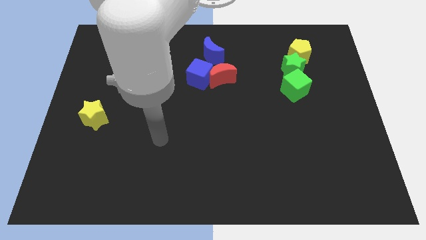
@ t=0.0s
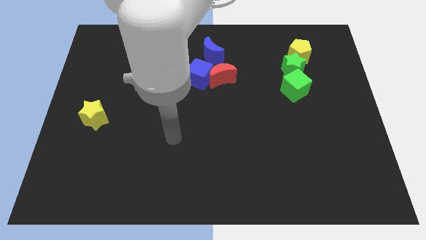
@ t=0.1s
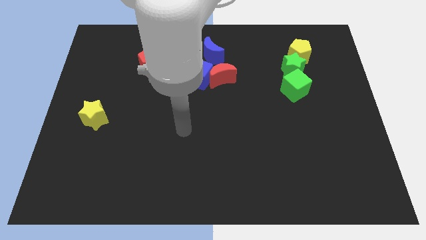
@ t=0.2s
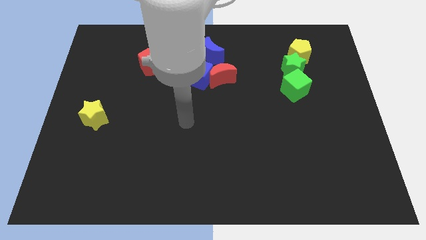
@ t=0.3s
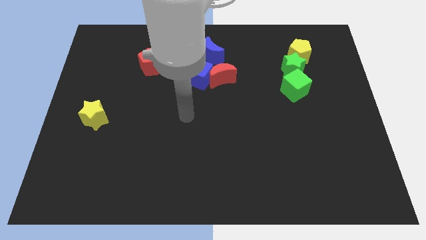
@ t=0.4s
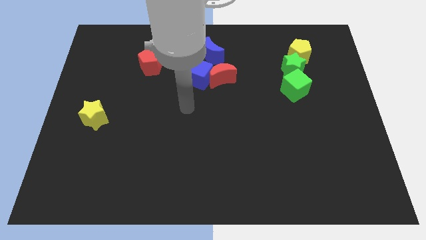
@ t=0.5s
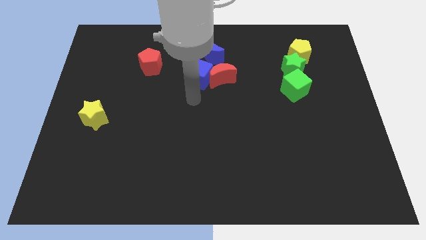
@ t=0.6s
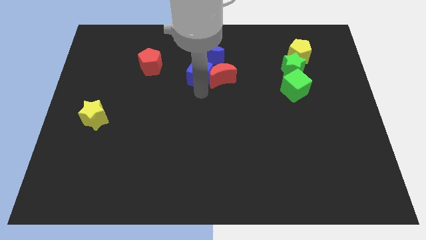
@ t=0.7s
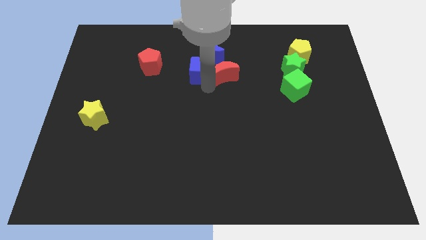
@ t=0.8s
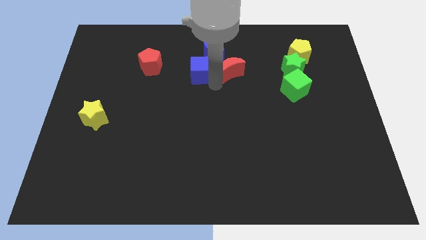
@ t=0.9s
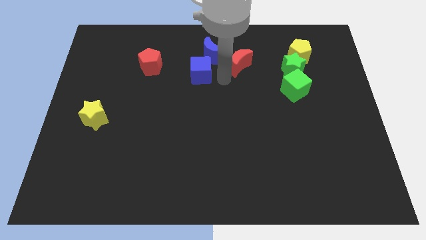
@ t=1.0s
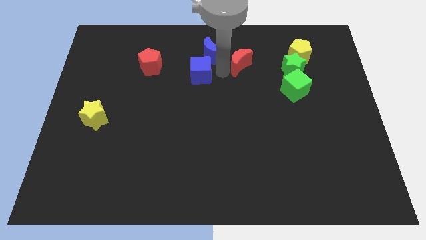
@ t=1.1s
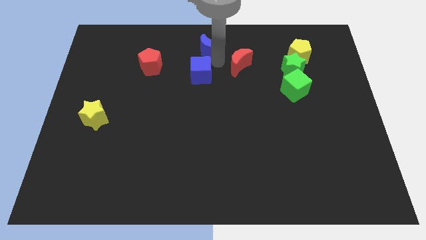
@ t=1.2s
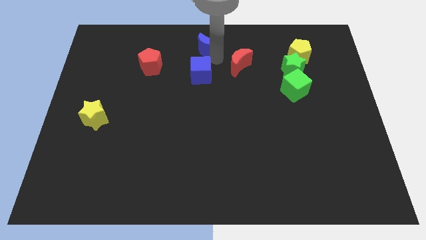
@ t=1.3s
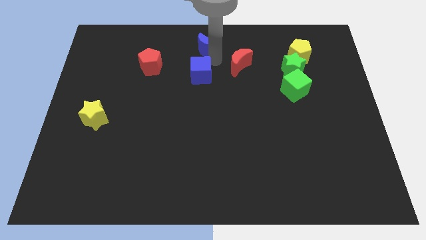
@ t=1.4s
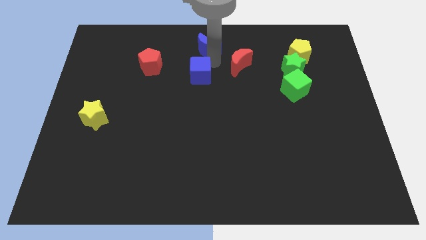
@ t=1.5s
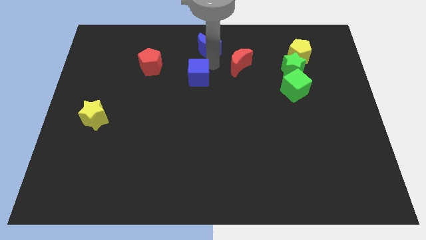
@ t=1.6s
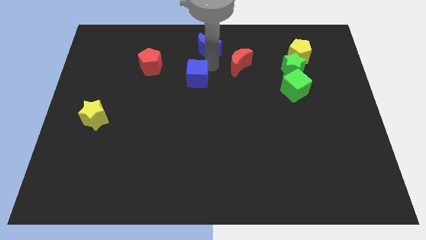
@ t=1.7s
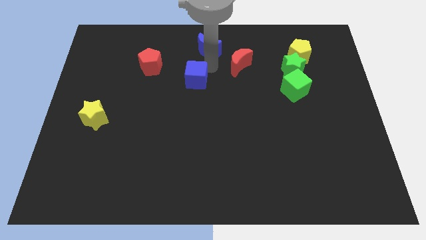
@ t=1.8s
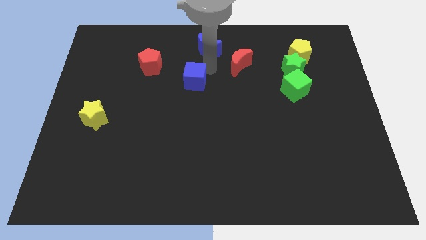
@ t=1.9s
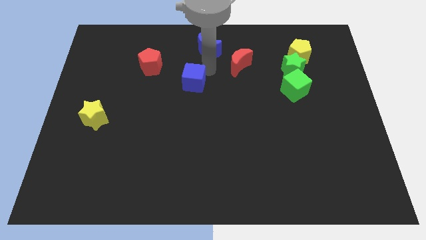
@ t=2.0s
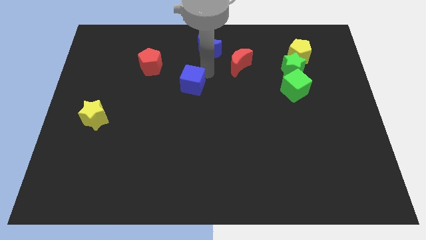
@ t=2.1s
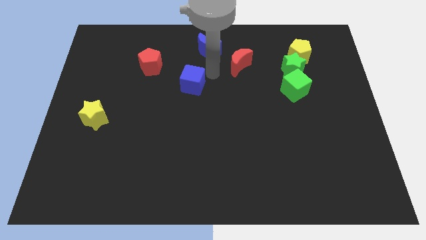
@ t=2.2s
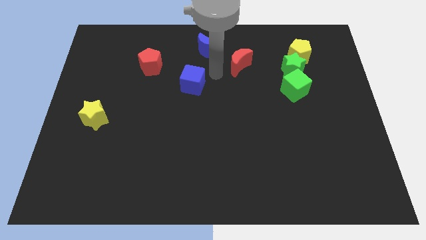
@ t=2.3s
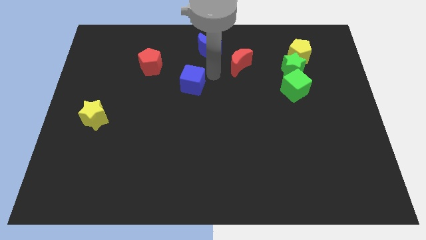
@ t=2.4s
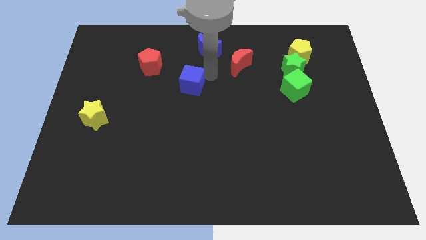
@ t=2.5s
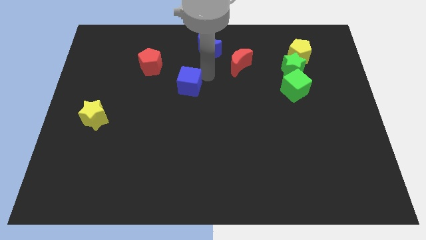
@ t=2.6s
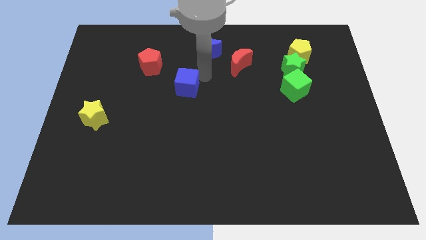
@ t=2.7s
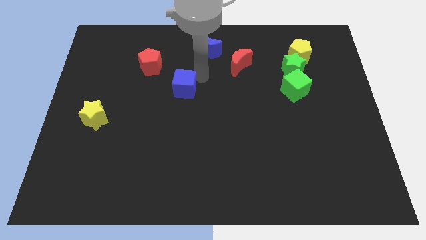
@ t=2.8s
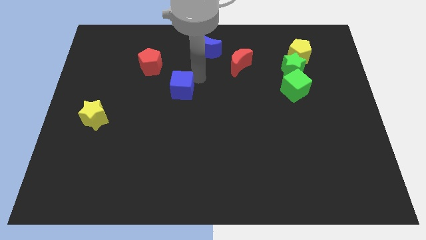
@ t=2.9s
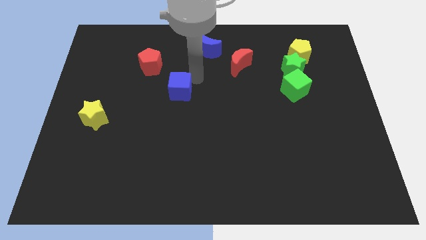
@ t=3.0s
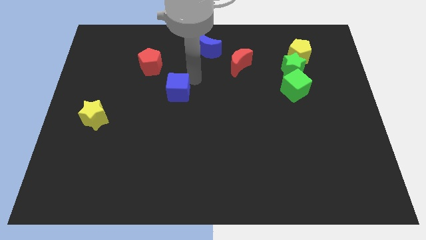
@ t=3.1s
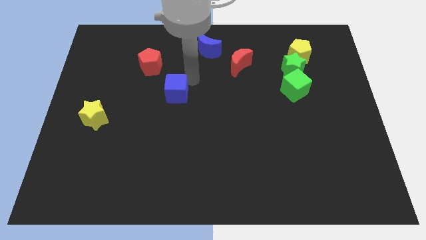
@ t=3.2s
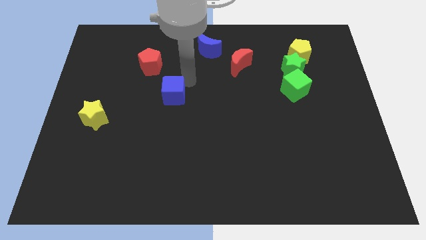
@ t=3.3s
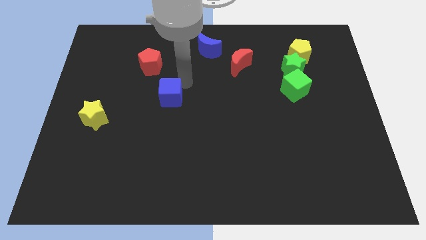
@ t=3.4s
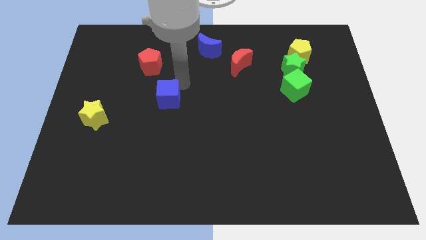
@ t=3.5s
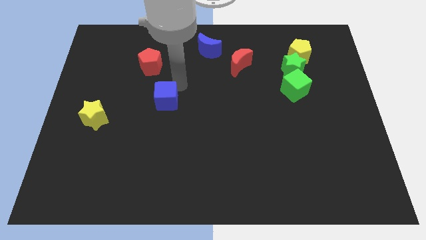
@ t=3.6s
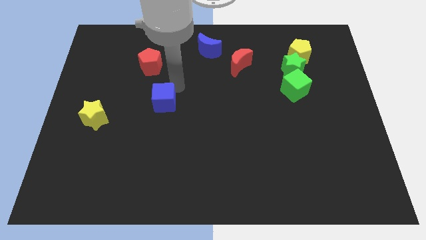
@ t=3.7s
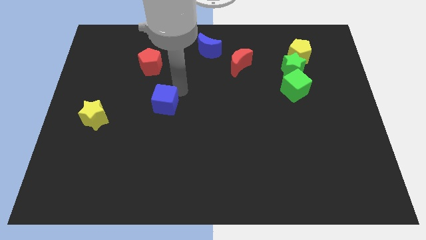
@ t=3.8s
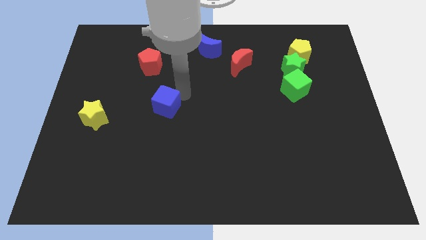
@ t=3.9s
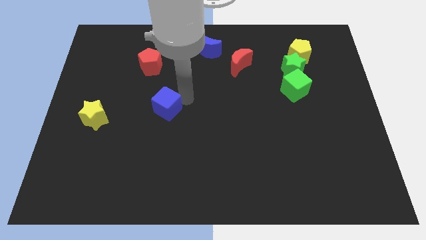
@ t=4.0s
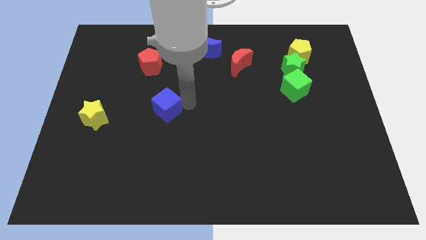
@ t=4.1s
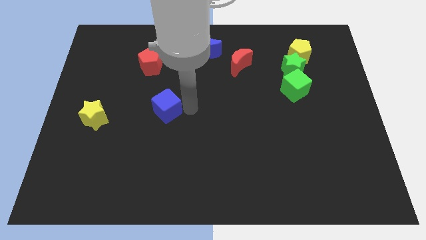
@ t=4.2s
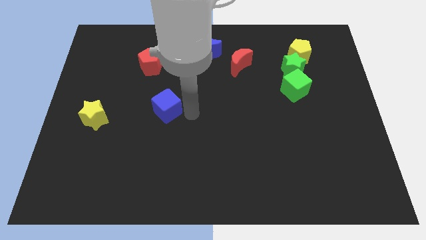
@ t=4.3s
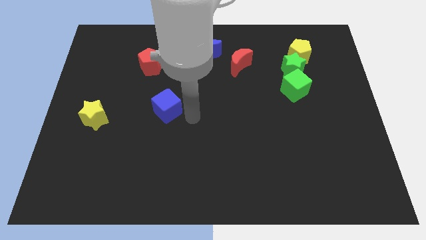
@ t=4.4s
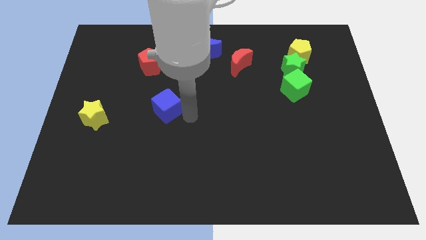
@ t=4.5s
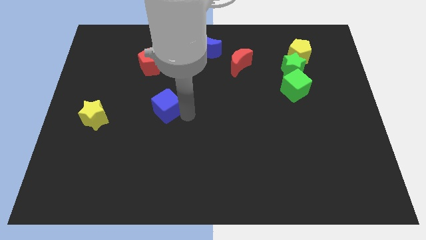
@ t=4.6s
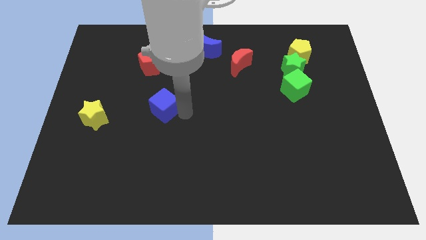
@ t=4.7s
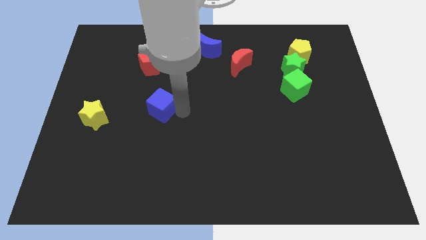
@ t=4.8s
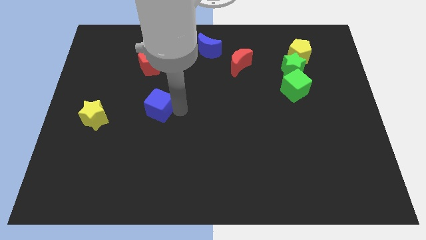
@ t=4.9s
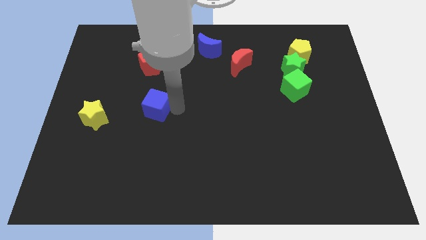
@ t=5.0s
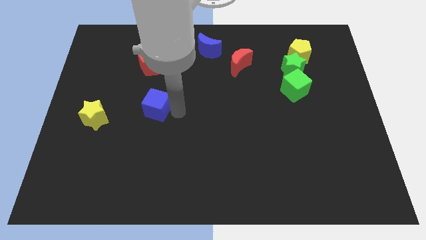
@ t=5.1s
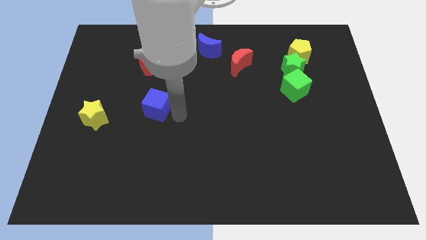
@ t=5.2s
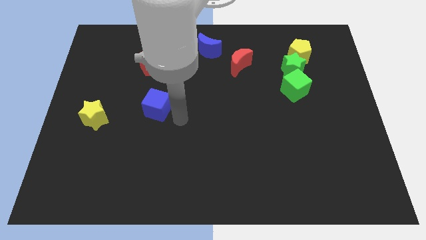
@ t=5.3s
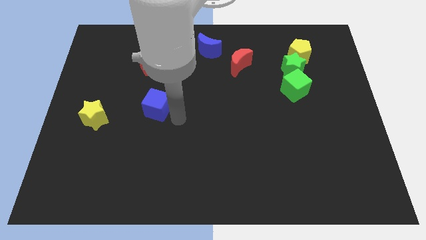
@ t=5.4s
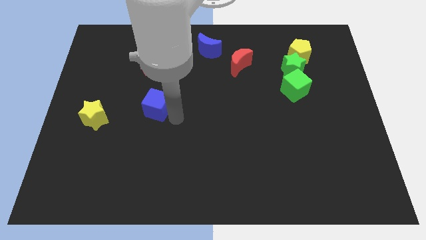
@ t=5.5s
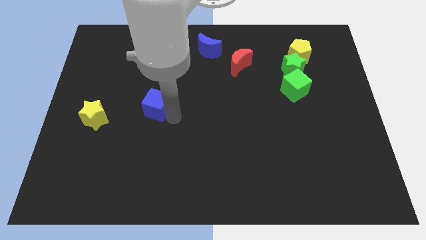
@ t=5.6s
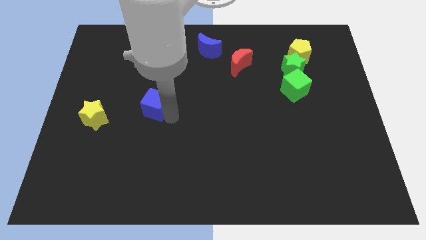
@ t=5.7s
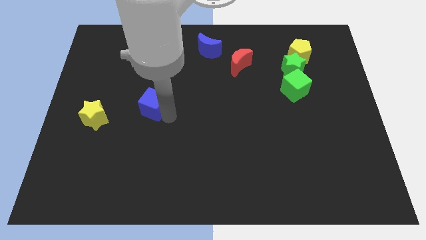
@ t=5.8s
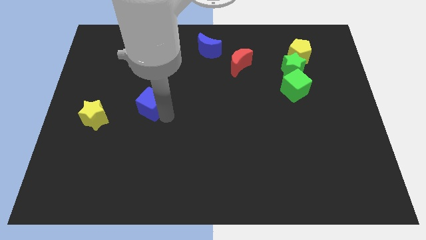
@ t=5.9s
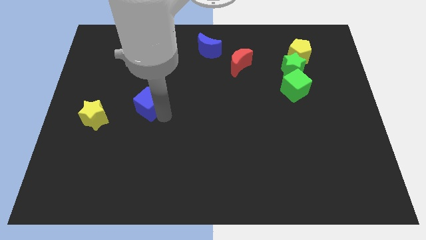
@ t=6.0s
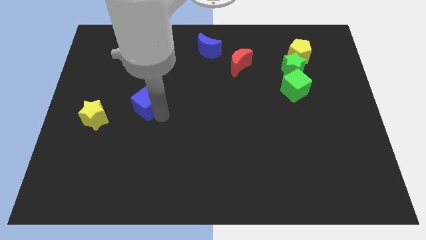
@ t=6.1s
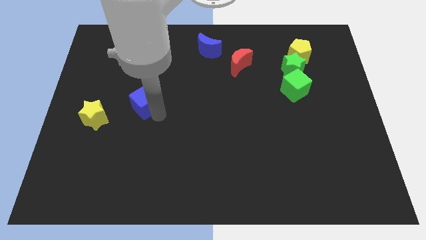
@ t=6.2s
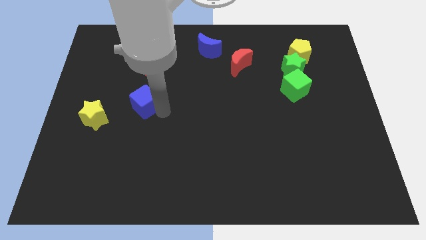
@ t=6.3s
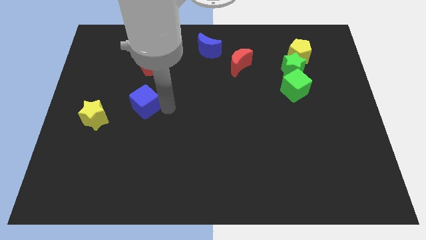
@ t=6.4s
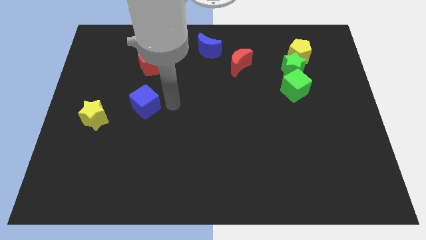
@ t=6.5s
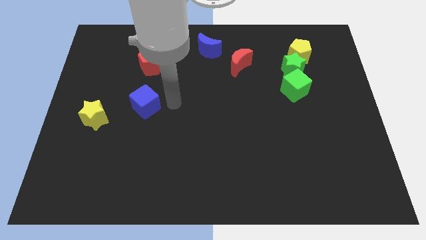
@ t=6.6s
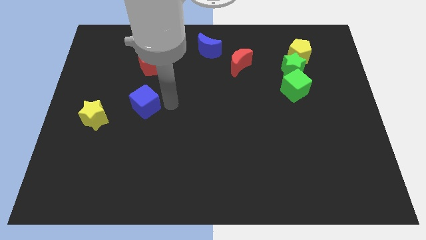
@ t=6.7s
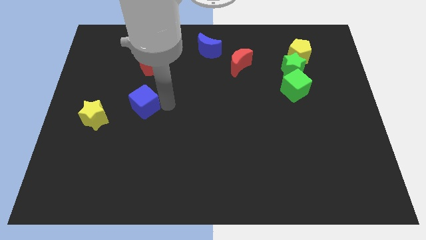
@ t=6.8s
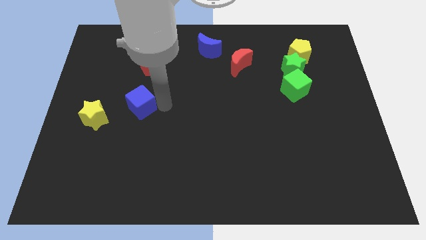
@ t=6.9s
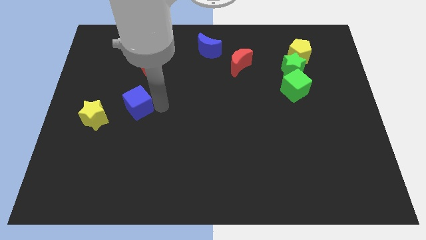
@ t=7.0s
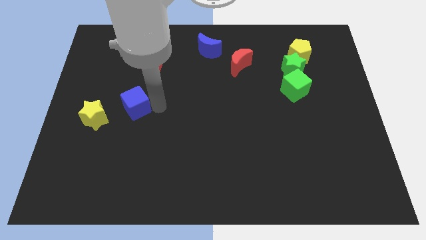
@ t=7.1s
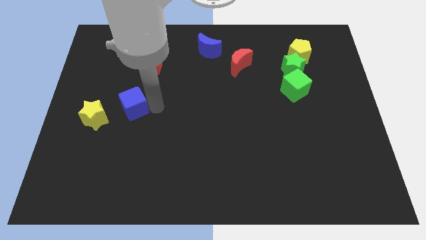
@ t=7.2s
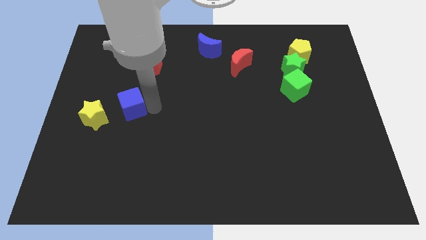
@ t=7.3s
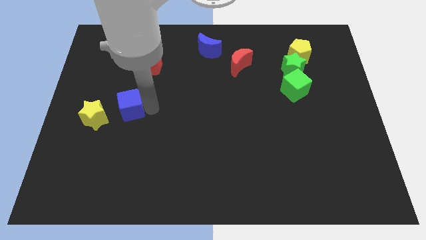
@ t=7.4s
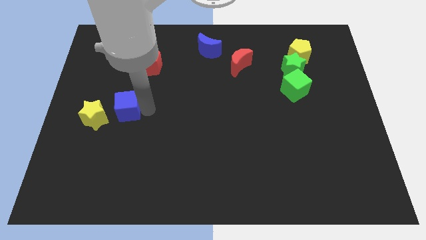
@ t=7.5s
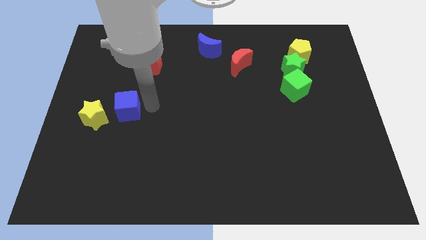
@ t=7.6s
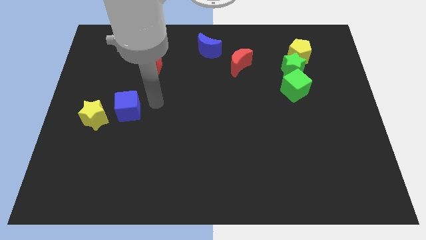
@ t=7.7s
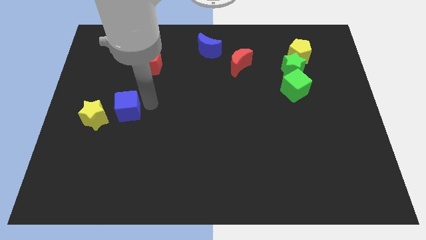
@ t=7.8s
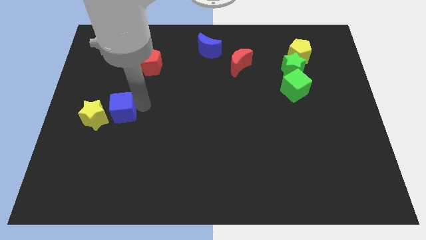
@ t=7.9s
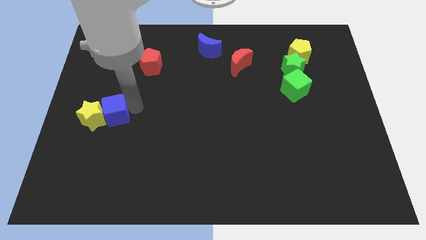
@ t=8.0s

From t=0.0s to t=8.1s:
move the blue cube to the yellow star
